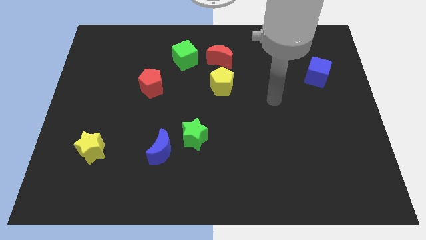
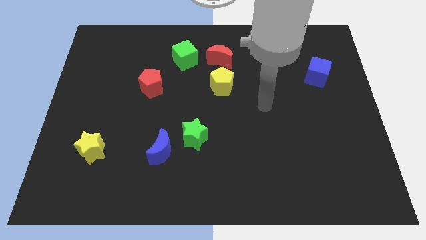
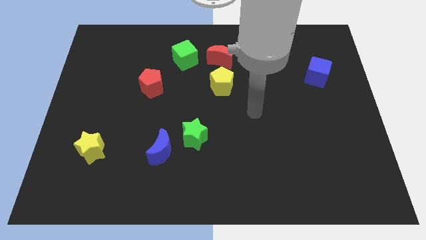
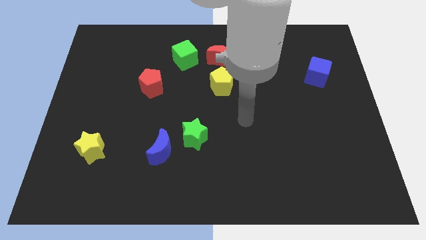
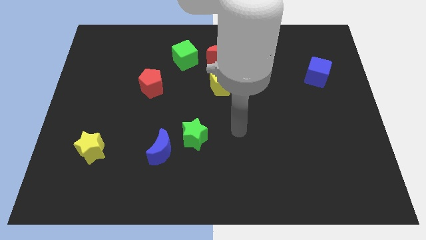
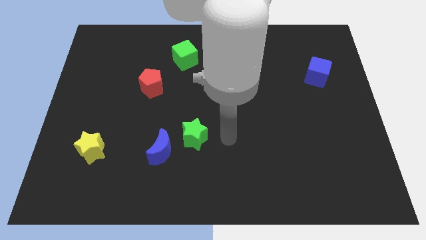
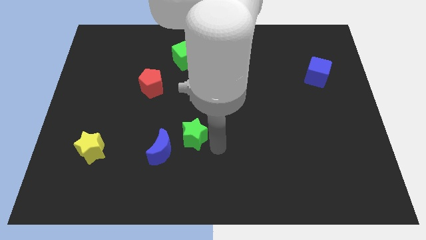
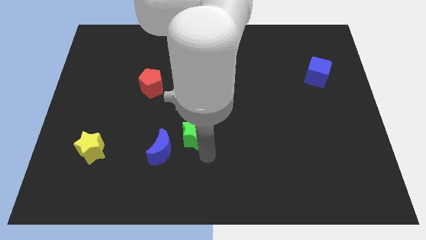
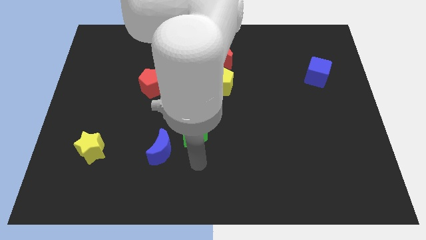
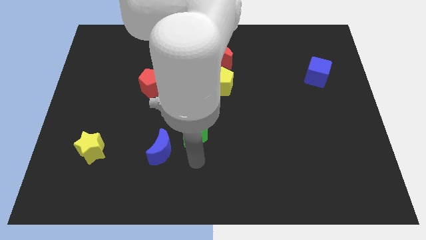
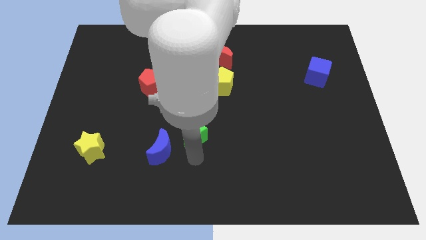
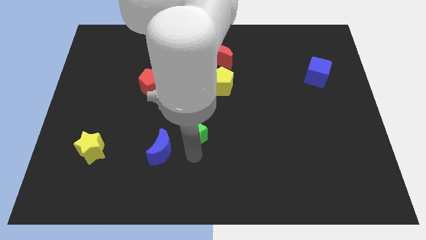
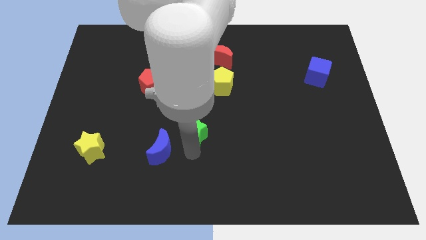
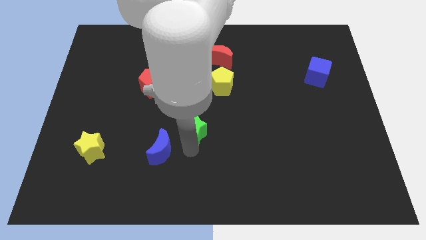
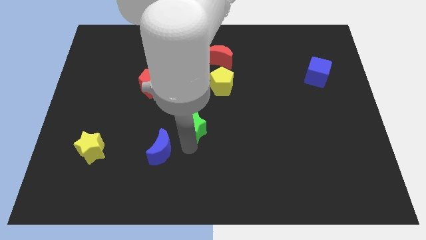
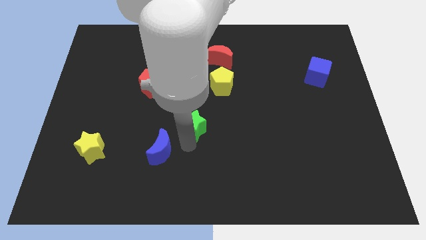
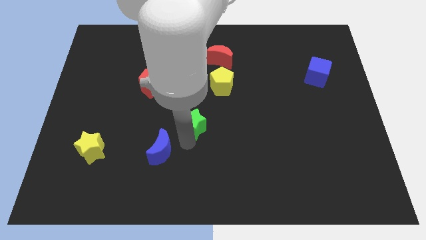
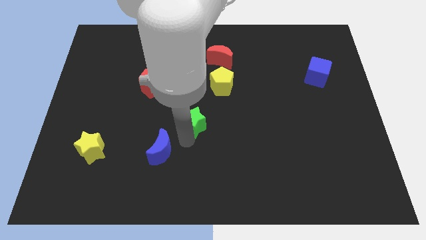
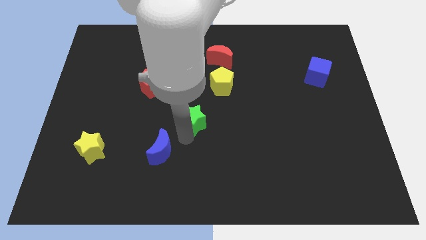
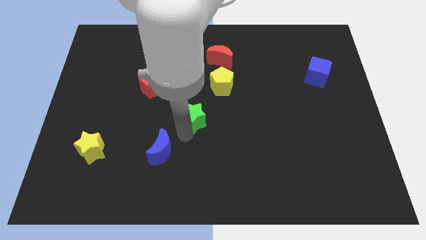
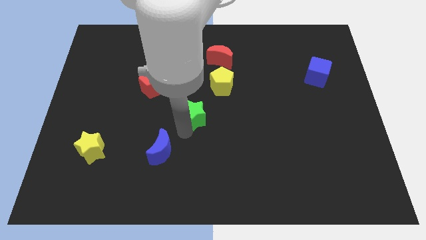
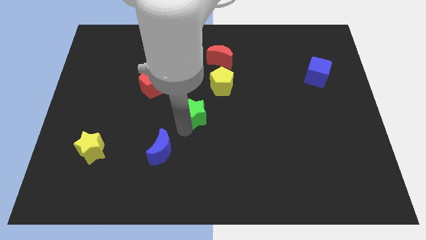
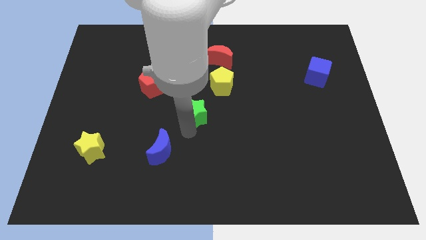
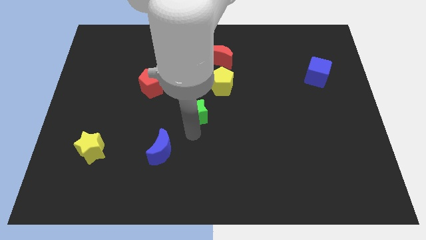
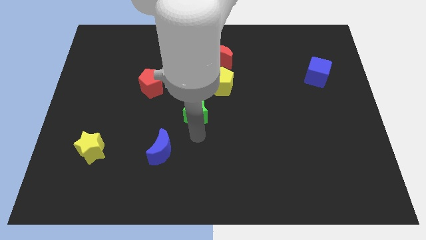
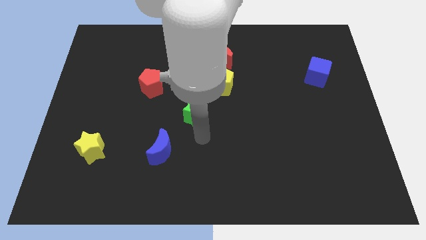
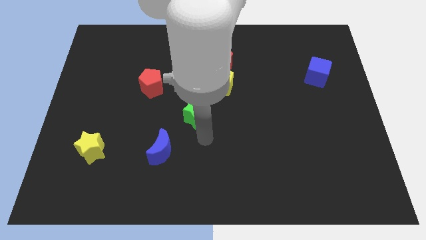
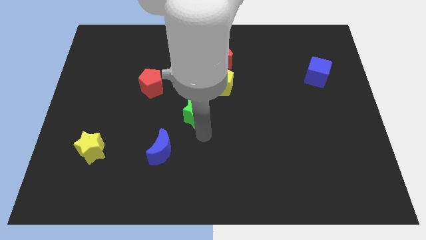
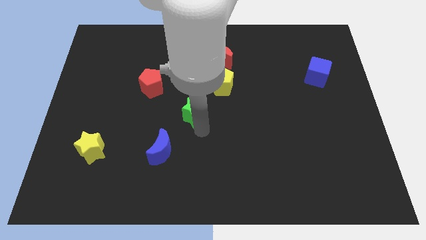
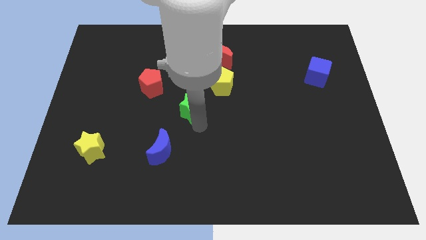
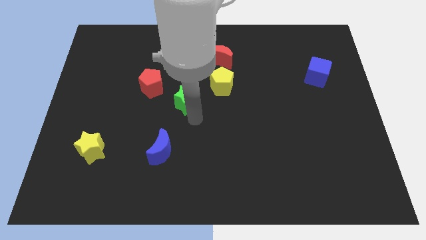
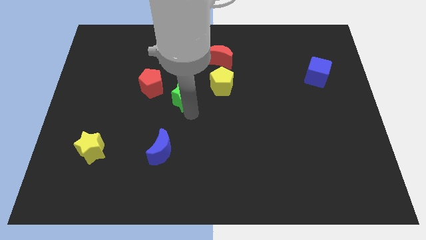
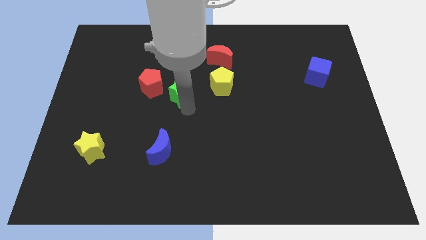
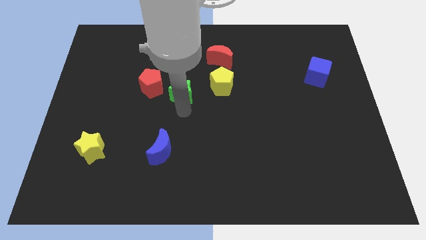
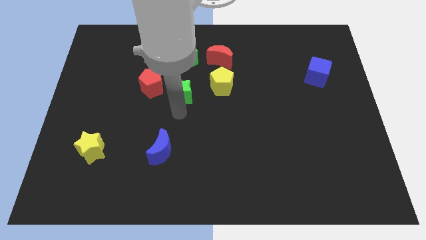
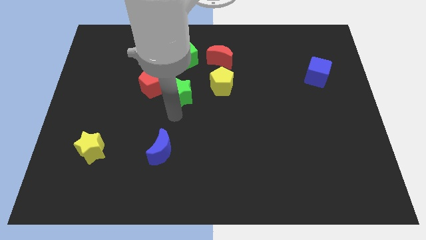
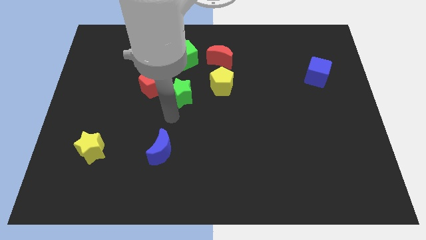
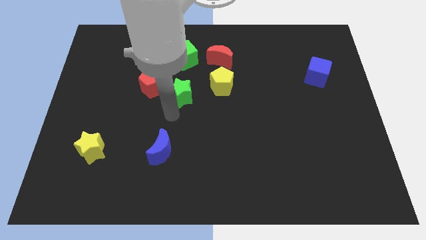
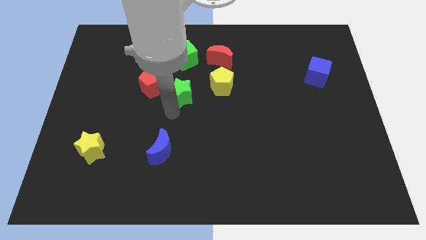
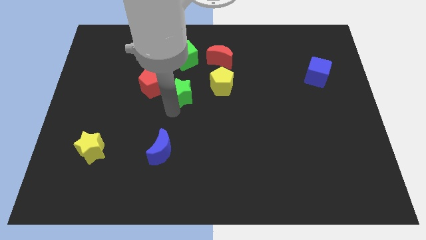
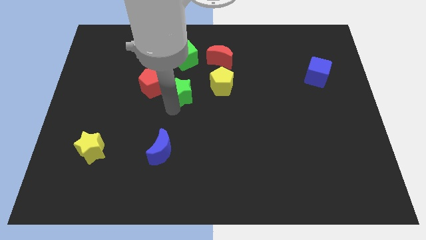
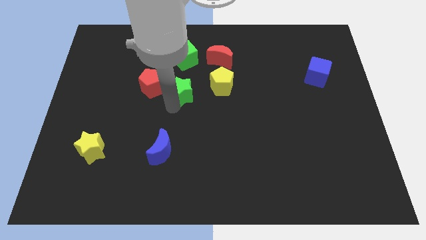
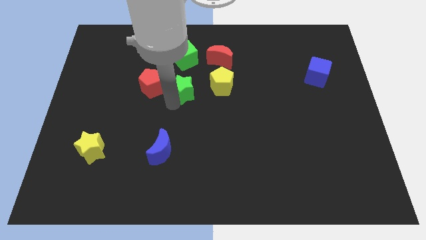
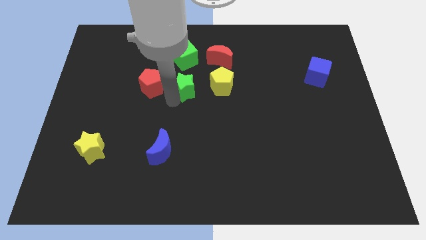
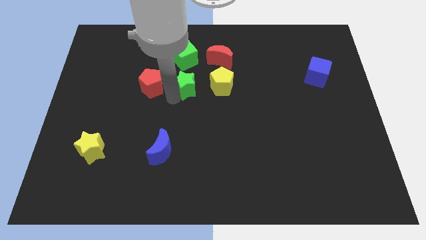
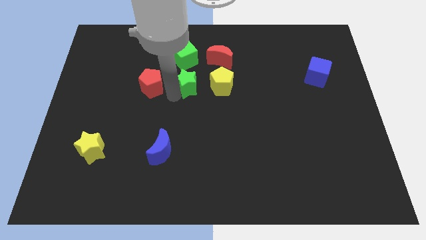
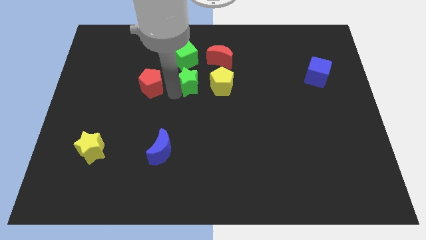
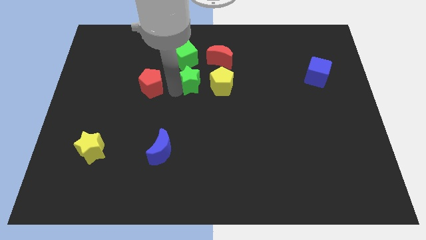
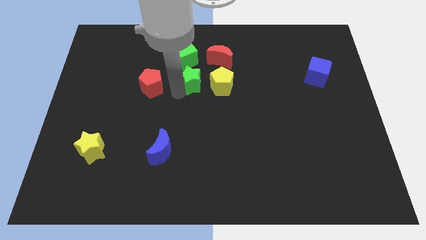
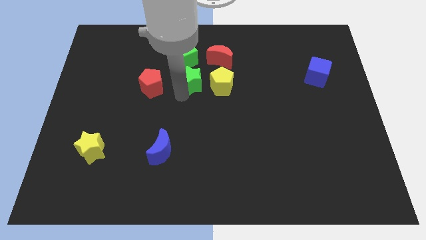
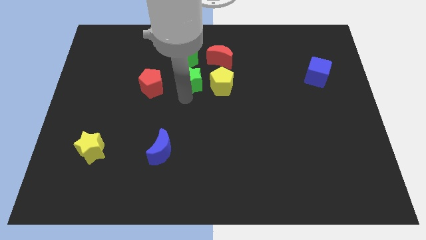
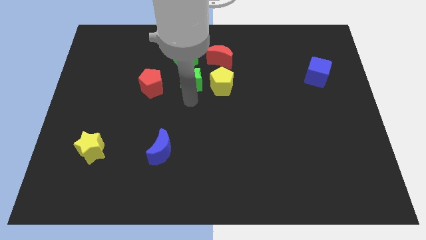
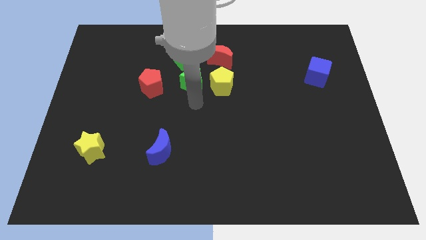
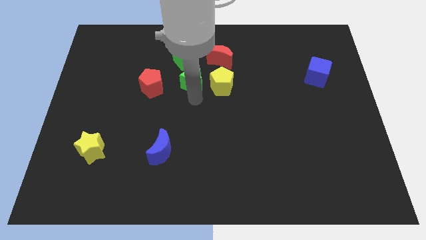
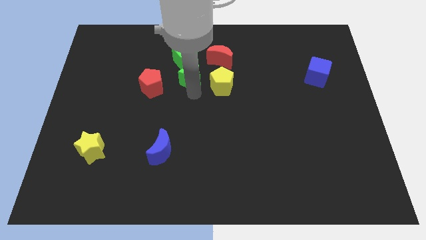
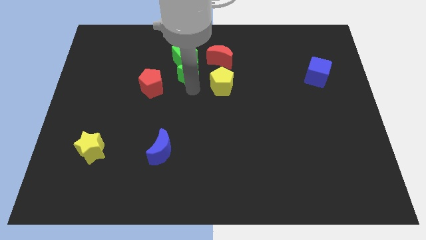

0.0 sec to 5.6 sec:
put the green star close to the green cube

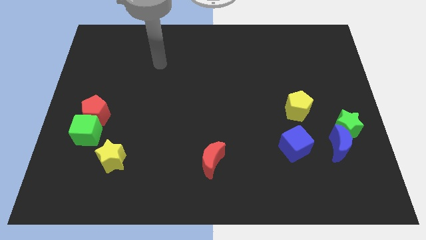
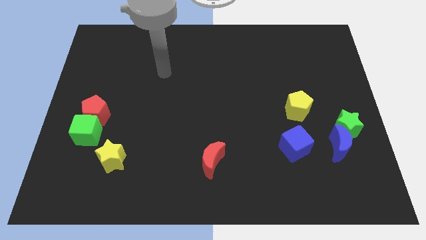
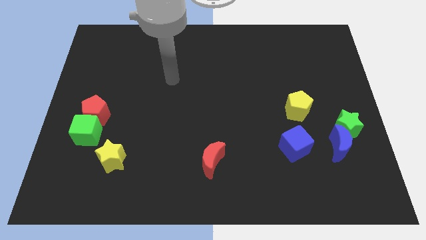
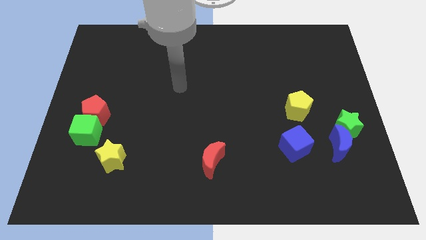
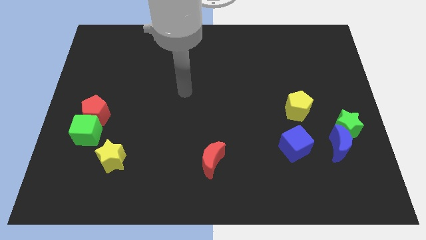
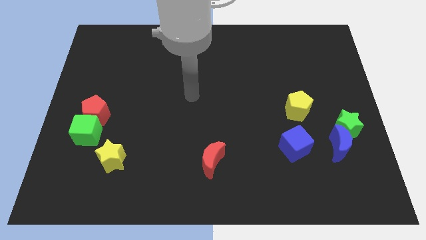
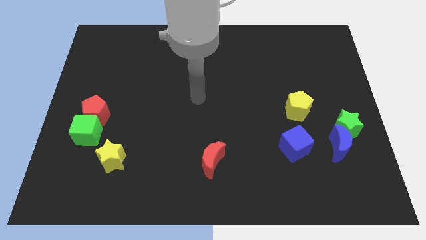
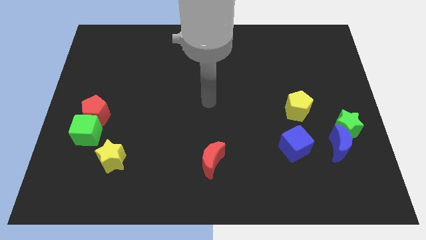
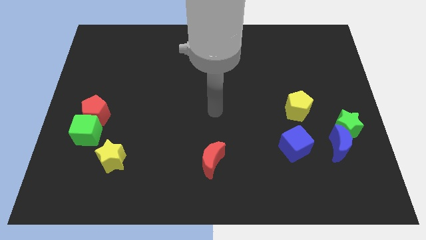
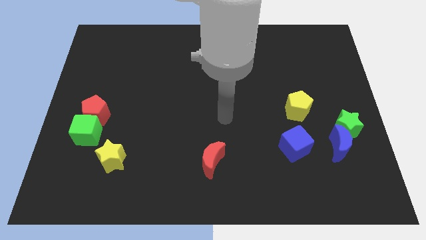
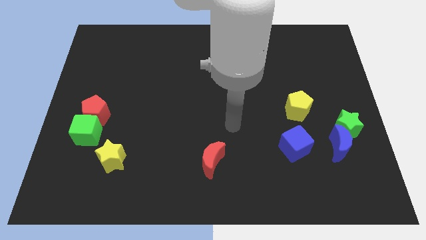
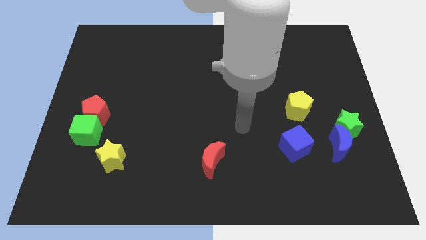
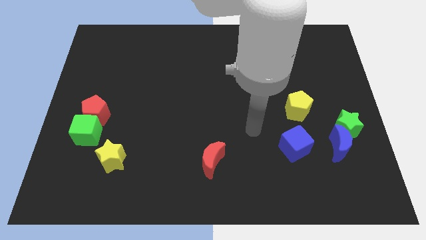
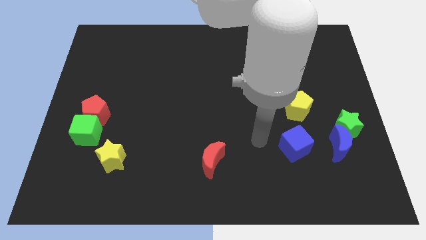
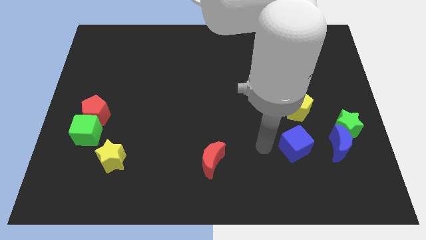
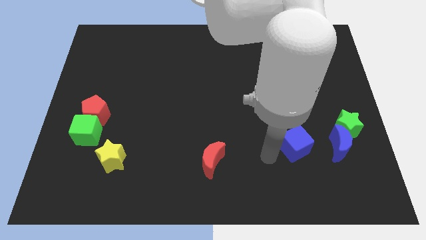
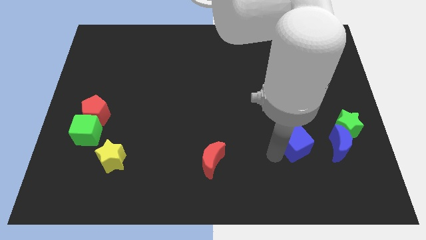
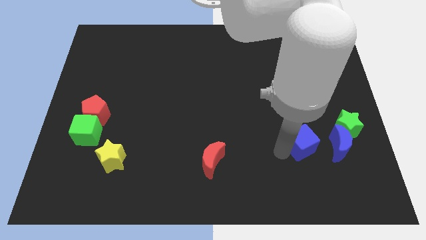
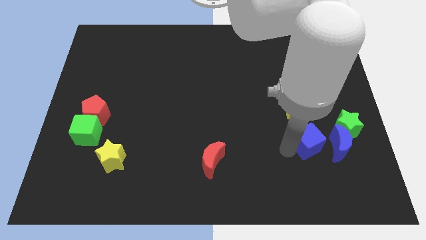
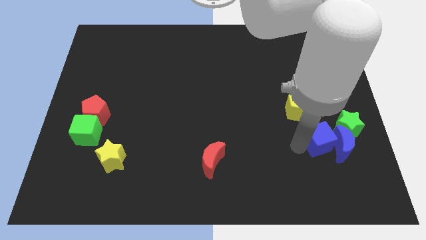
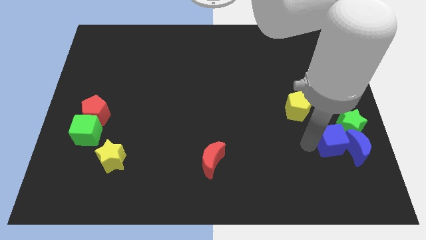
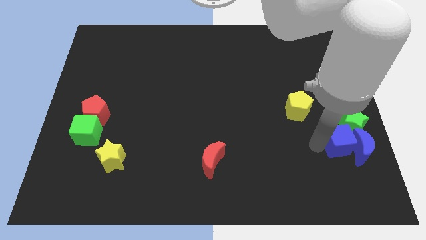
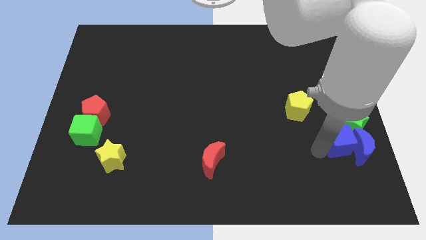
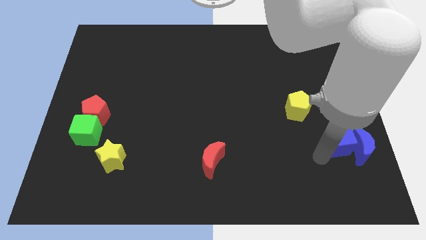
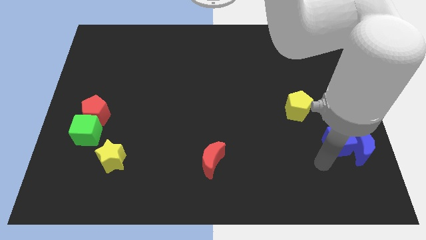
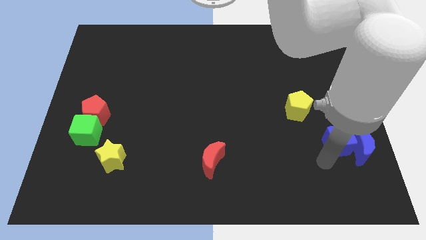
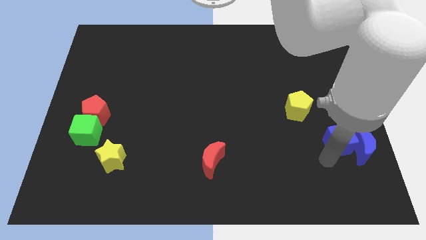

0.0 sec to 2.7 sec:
slide the blue cube close to the green star
